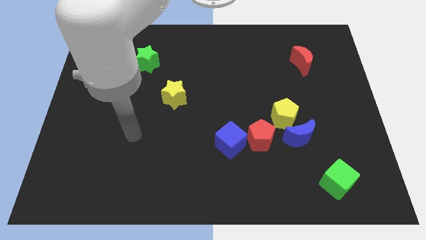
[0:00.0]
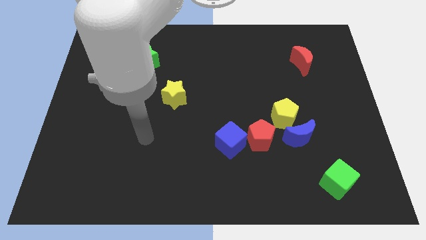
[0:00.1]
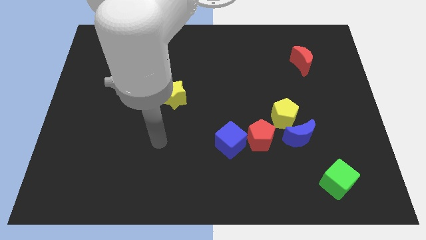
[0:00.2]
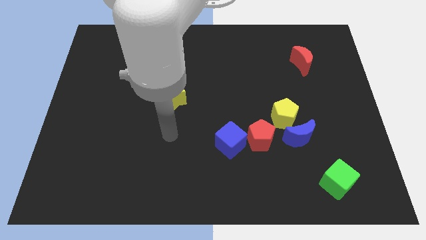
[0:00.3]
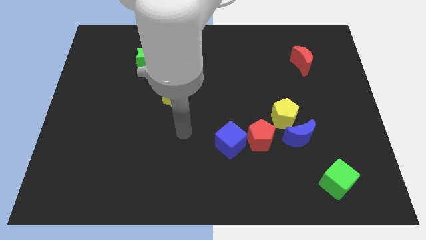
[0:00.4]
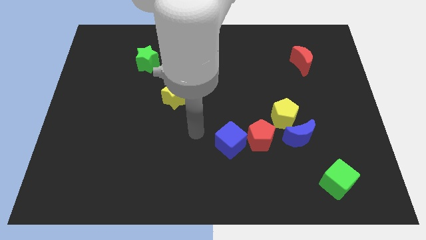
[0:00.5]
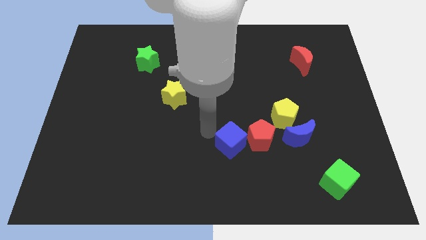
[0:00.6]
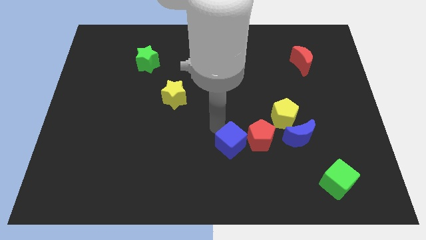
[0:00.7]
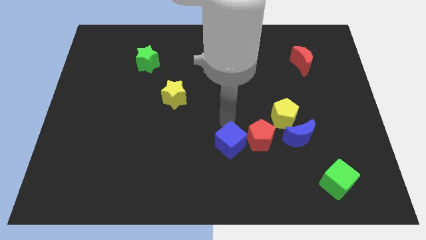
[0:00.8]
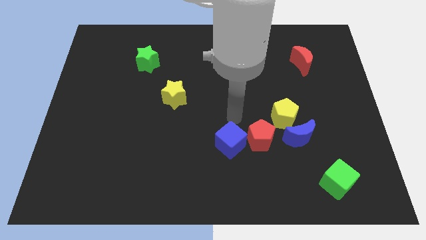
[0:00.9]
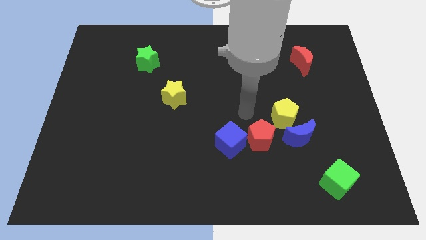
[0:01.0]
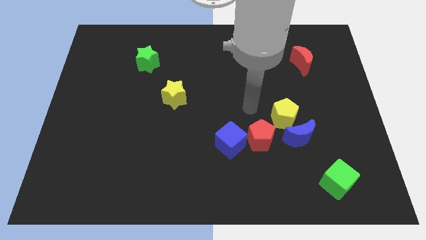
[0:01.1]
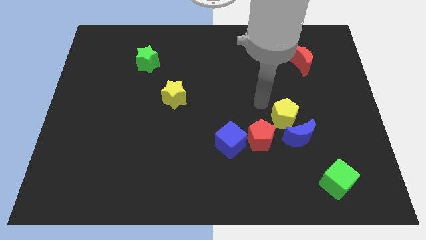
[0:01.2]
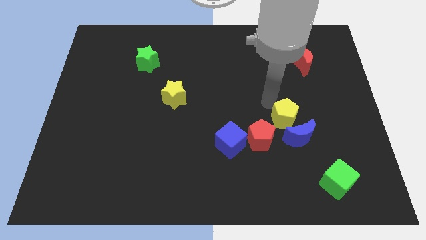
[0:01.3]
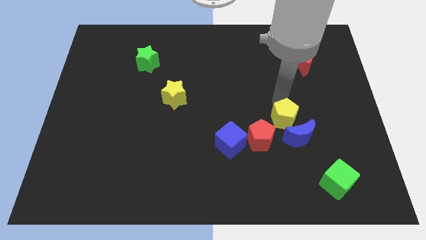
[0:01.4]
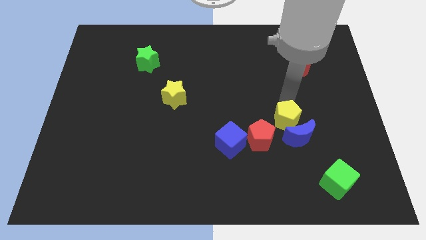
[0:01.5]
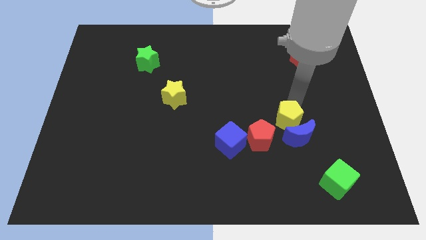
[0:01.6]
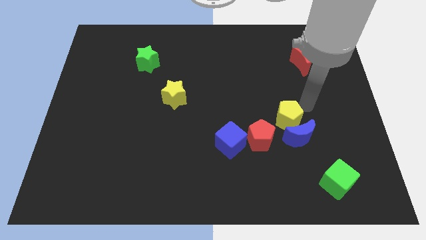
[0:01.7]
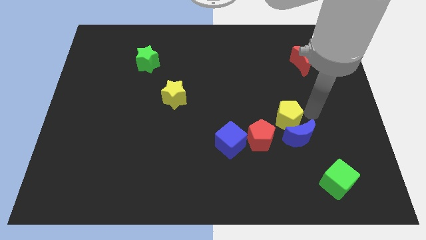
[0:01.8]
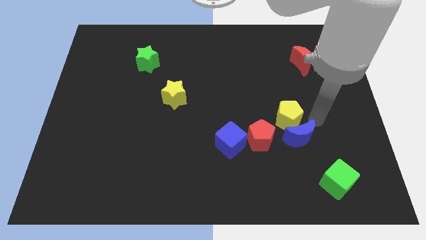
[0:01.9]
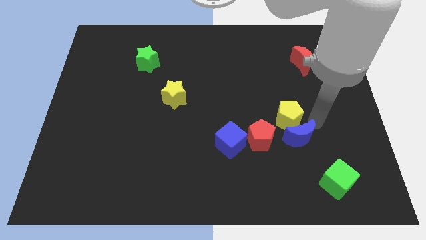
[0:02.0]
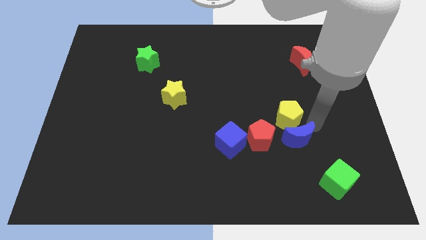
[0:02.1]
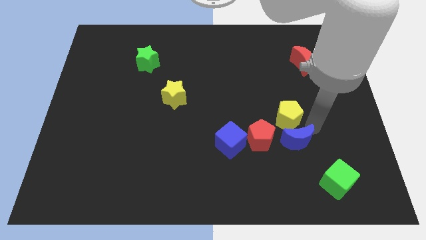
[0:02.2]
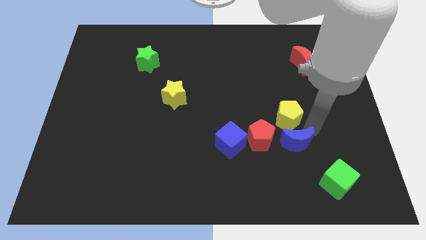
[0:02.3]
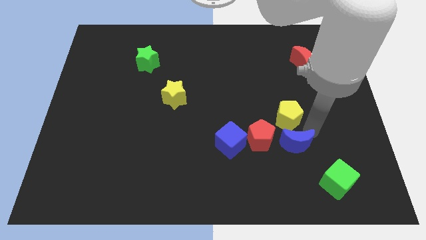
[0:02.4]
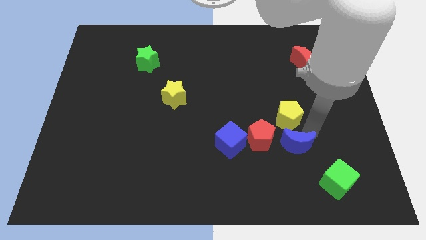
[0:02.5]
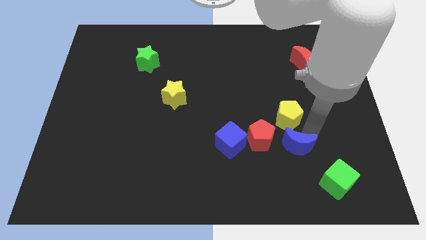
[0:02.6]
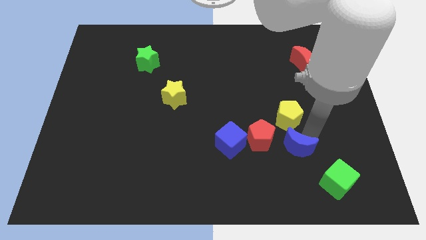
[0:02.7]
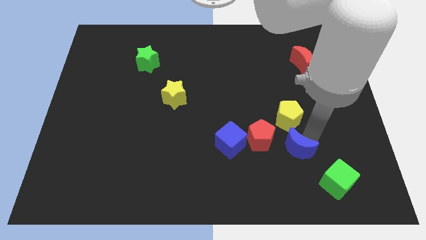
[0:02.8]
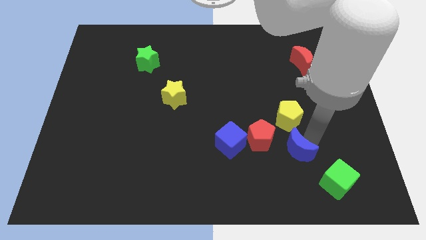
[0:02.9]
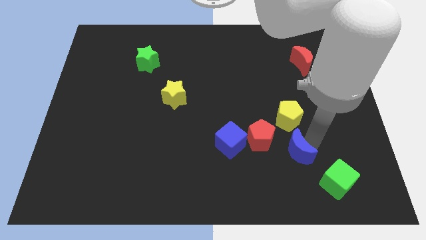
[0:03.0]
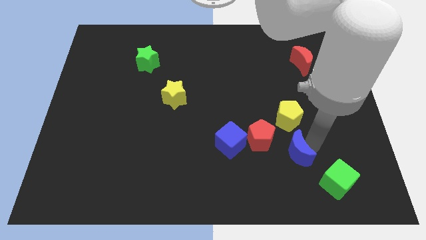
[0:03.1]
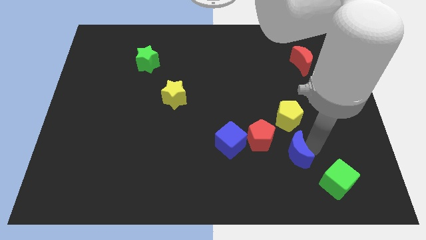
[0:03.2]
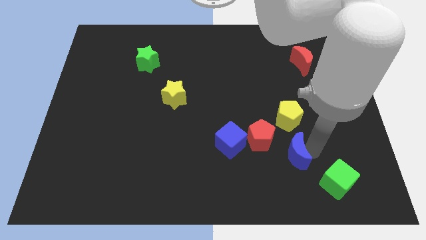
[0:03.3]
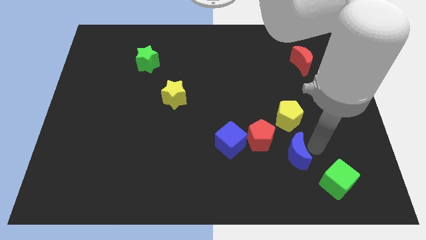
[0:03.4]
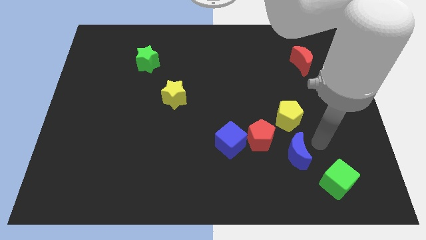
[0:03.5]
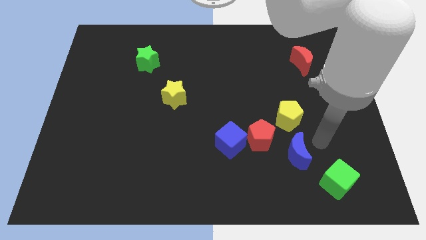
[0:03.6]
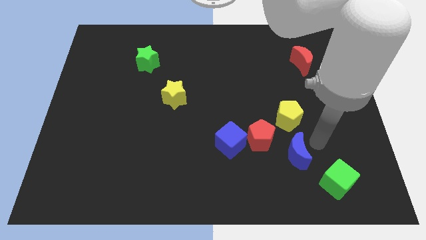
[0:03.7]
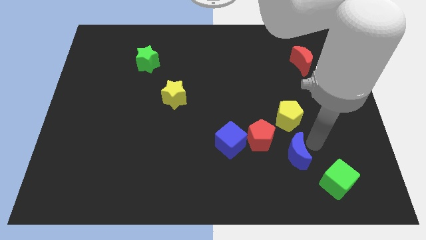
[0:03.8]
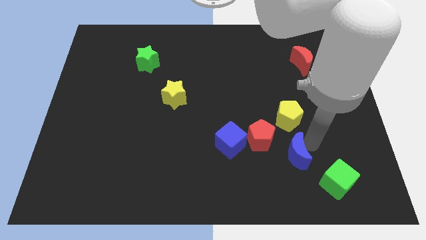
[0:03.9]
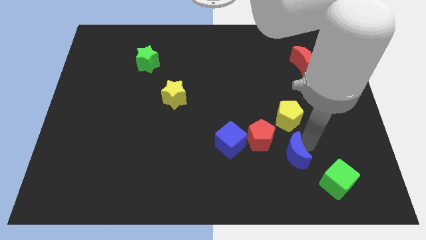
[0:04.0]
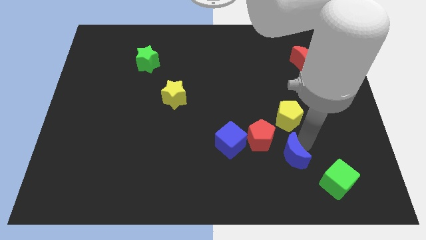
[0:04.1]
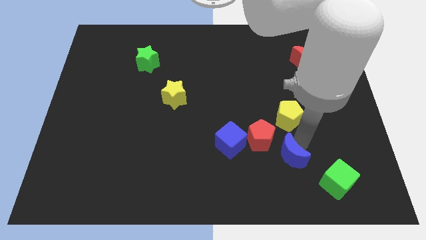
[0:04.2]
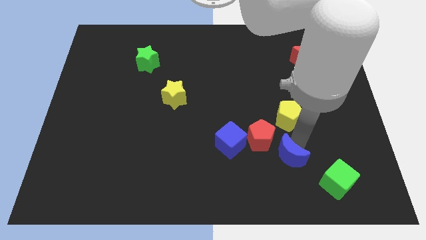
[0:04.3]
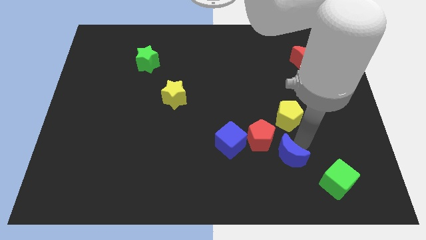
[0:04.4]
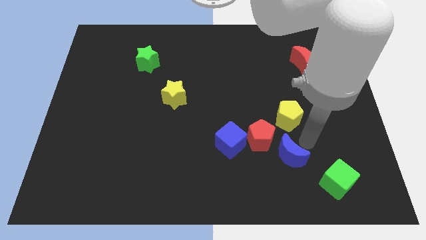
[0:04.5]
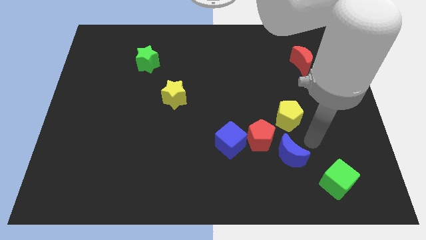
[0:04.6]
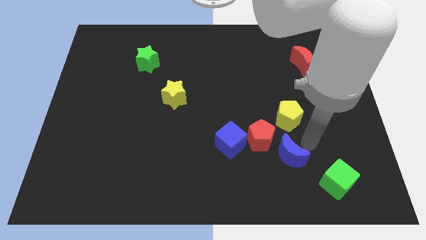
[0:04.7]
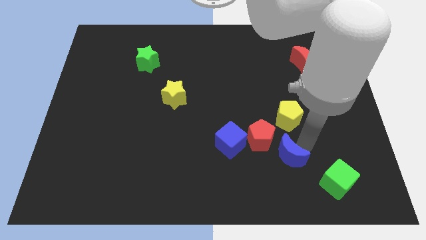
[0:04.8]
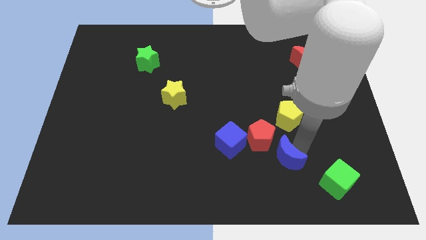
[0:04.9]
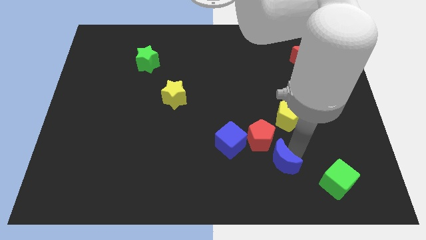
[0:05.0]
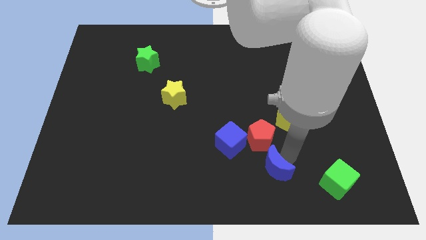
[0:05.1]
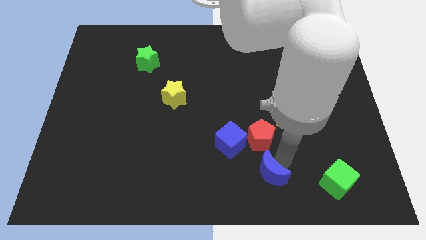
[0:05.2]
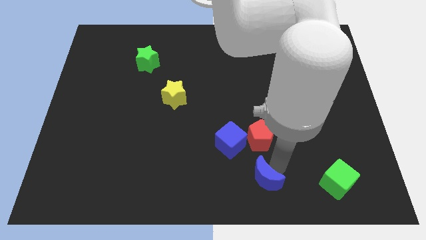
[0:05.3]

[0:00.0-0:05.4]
move the blue moon to the bottom

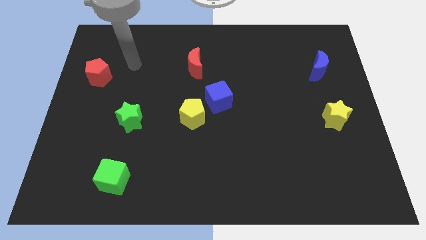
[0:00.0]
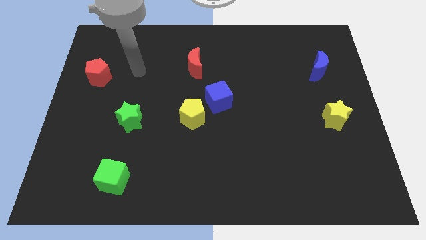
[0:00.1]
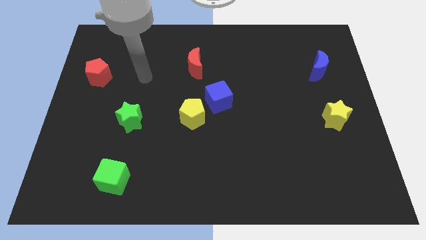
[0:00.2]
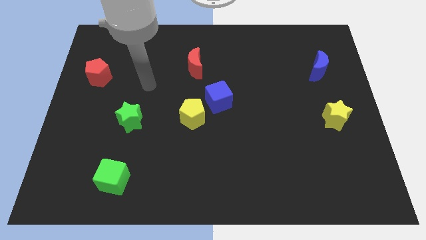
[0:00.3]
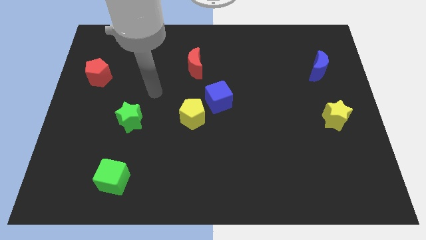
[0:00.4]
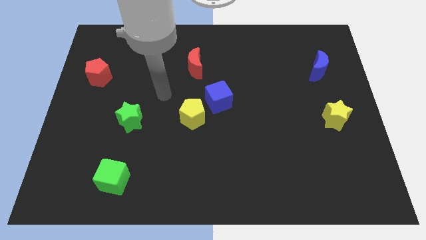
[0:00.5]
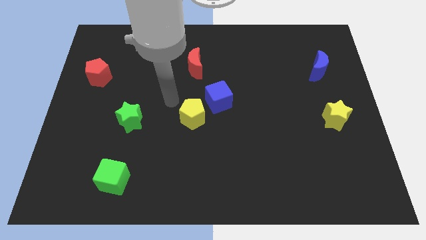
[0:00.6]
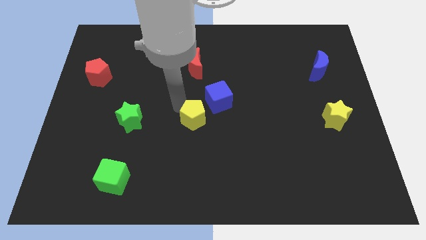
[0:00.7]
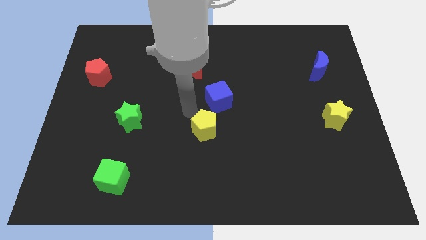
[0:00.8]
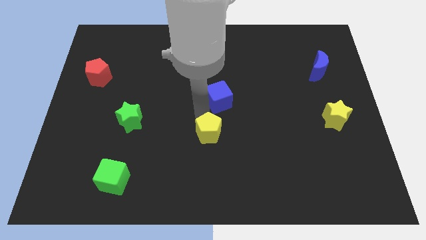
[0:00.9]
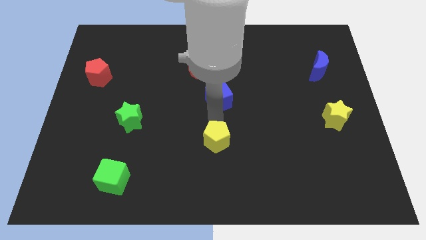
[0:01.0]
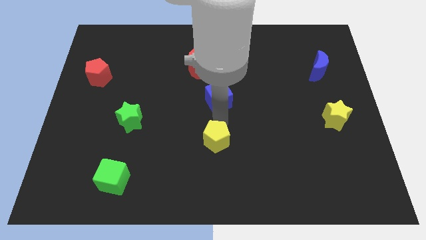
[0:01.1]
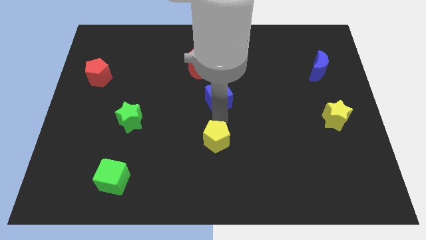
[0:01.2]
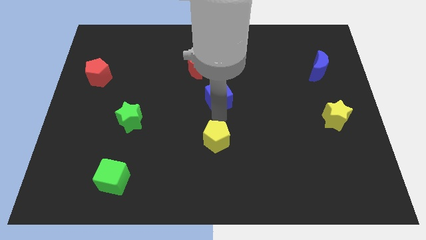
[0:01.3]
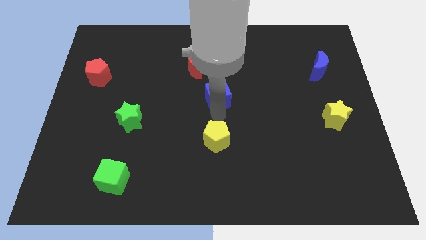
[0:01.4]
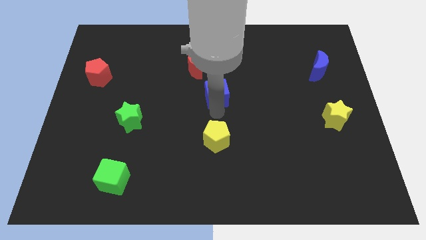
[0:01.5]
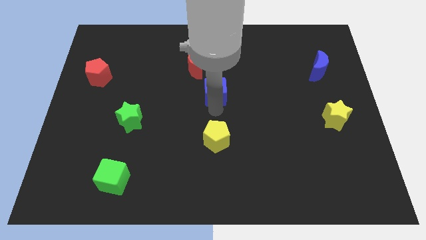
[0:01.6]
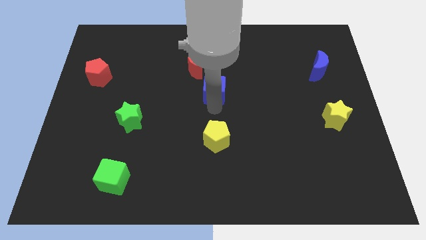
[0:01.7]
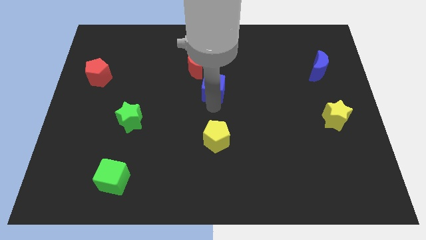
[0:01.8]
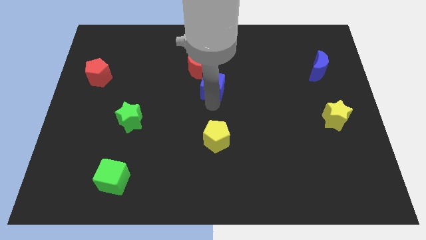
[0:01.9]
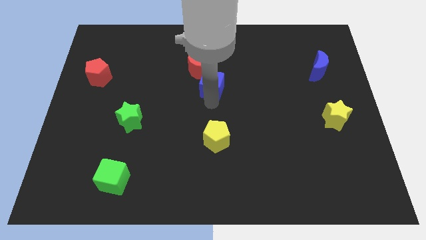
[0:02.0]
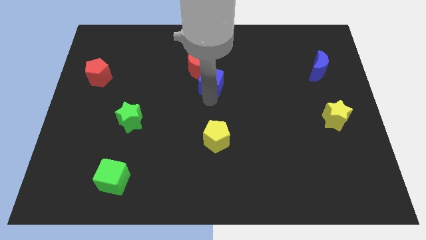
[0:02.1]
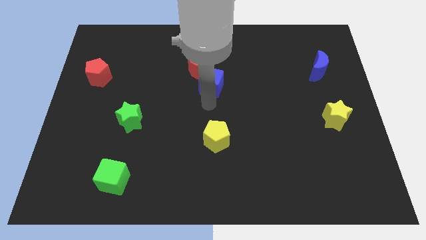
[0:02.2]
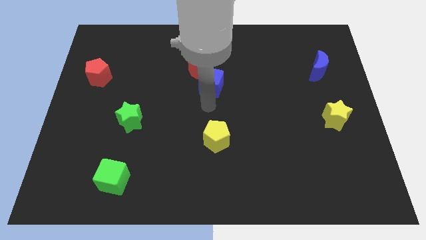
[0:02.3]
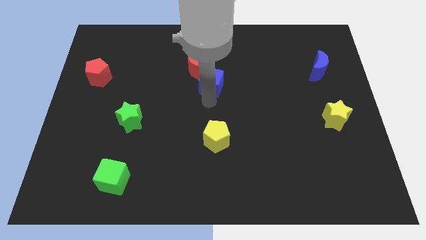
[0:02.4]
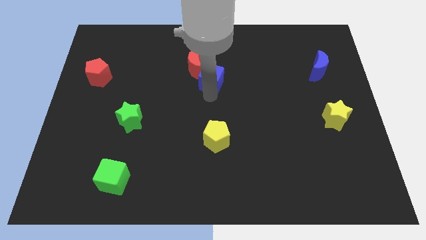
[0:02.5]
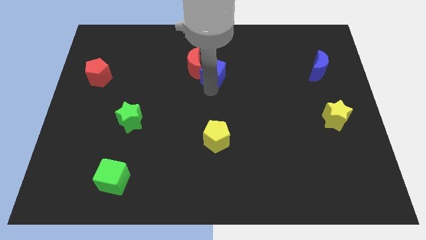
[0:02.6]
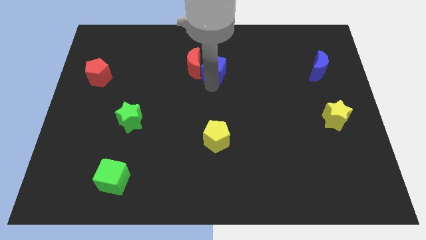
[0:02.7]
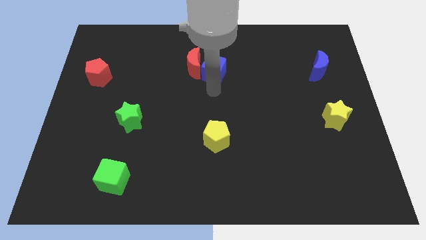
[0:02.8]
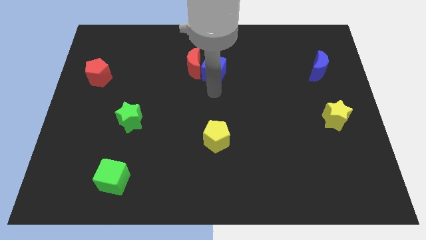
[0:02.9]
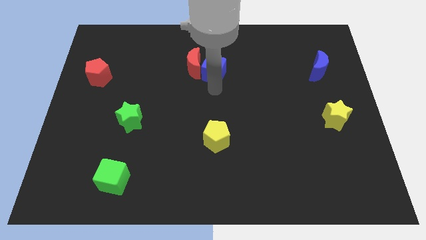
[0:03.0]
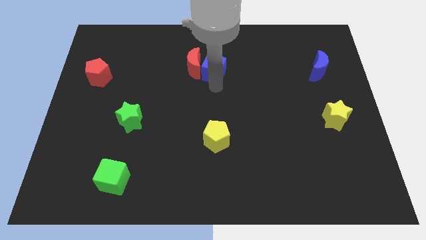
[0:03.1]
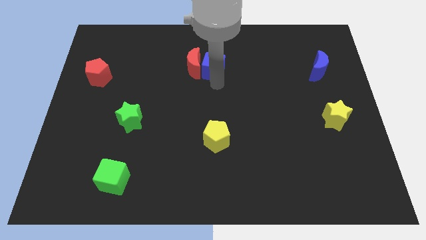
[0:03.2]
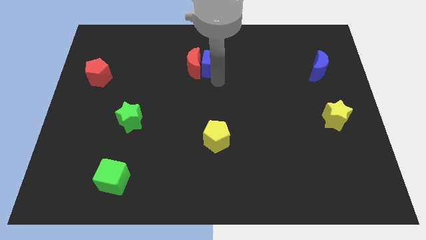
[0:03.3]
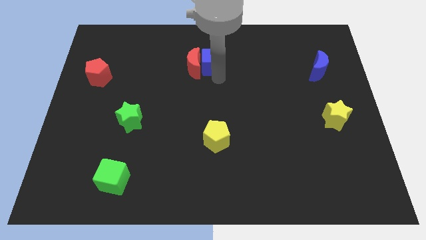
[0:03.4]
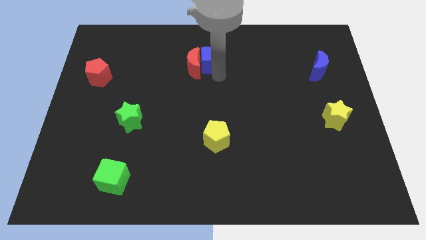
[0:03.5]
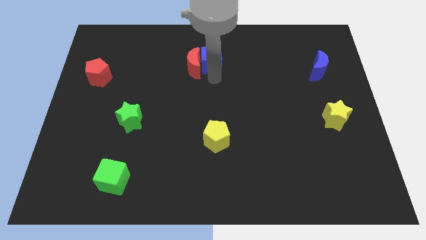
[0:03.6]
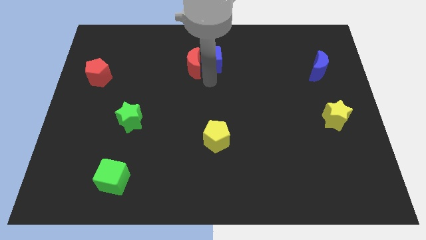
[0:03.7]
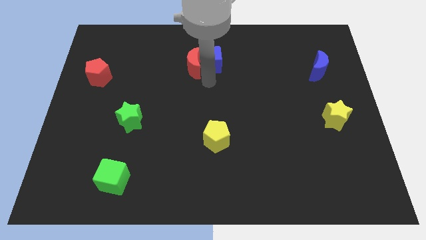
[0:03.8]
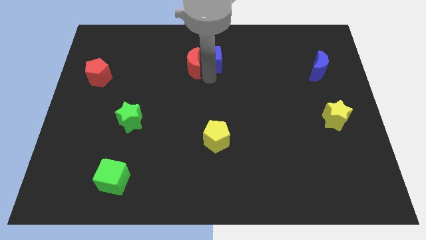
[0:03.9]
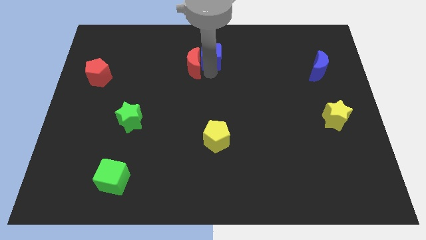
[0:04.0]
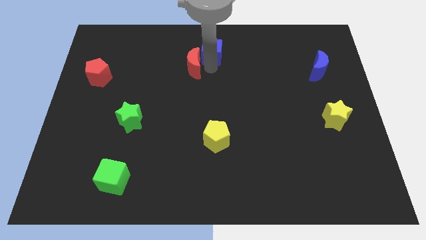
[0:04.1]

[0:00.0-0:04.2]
put the blue cube to the towards your base
